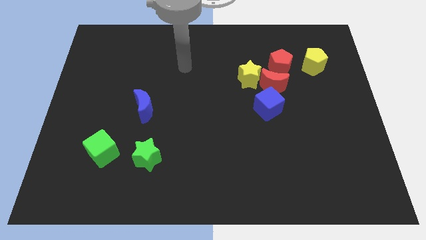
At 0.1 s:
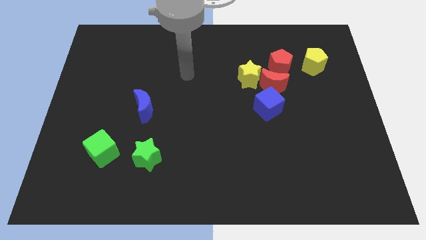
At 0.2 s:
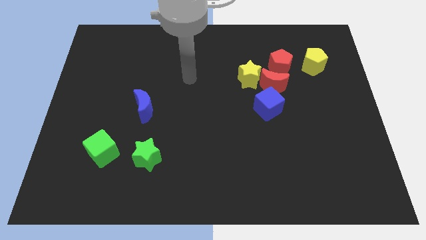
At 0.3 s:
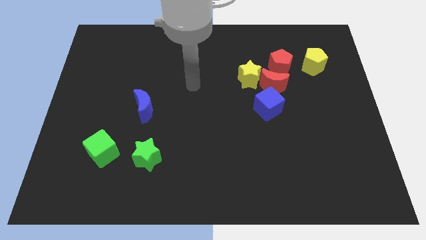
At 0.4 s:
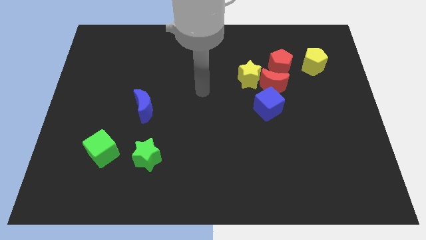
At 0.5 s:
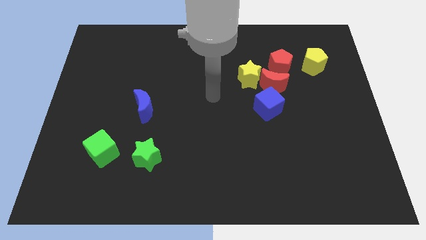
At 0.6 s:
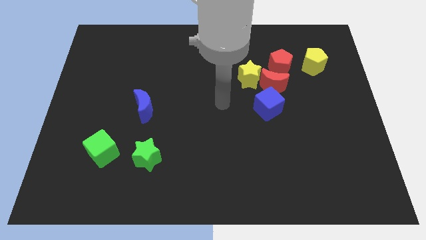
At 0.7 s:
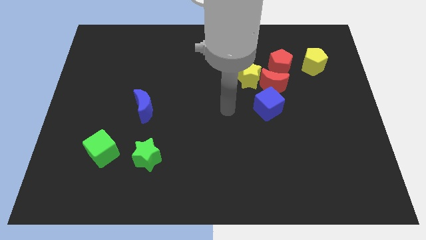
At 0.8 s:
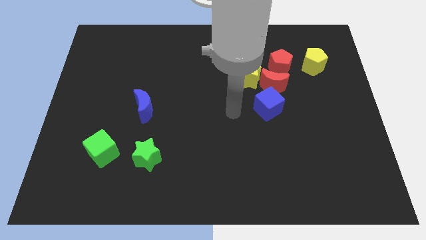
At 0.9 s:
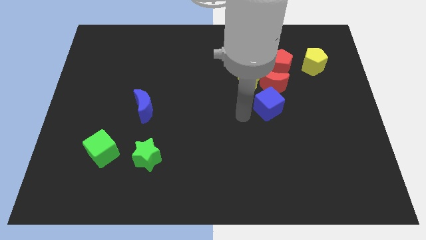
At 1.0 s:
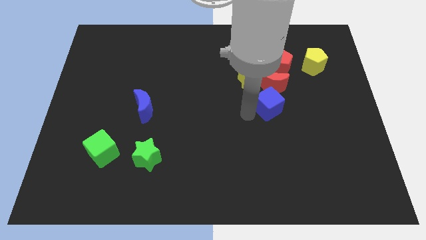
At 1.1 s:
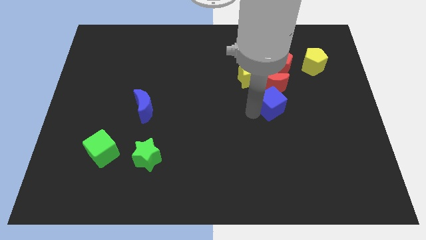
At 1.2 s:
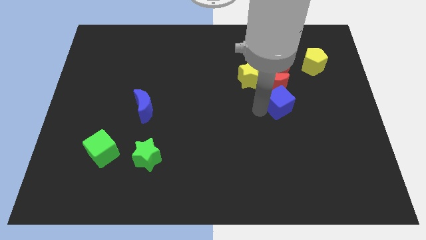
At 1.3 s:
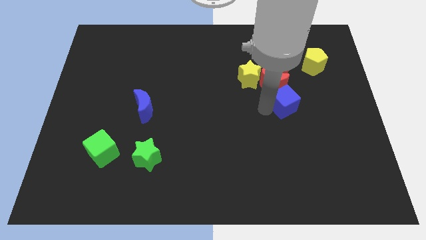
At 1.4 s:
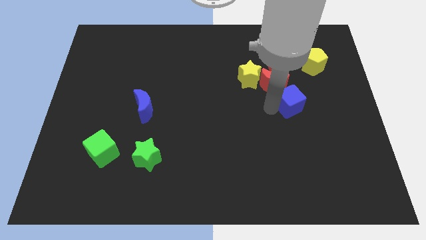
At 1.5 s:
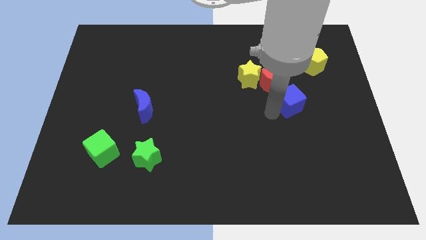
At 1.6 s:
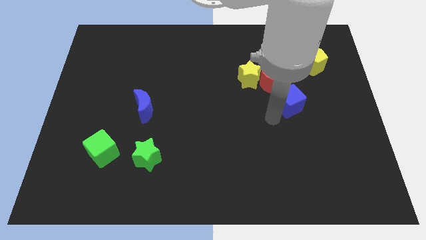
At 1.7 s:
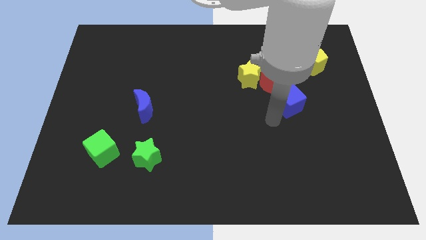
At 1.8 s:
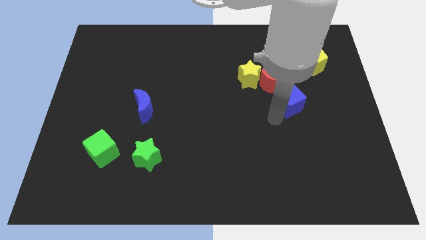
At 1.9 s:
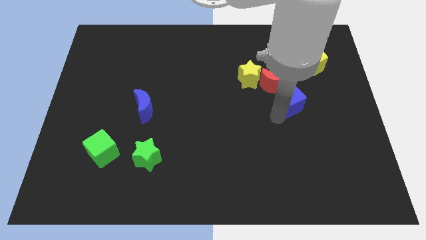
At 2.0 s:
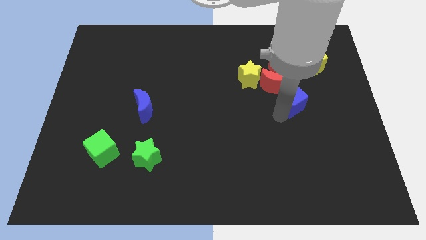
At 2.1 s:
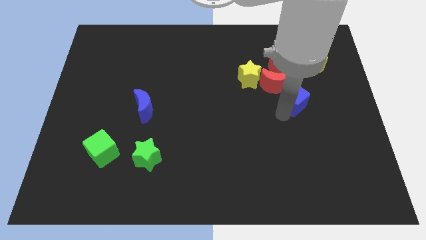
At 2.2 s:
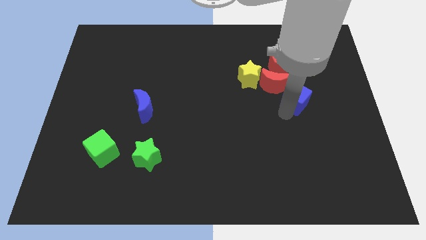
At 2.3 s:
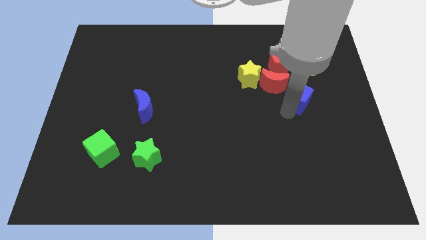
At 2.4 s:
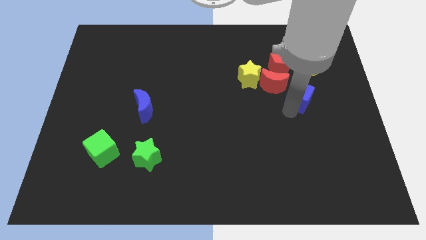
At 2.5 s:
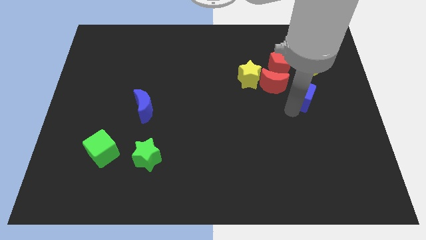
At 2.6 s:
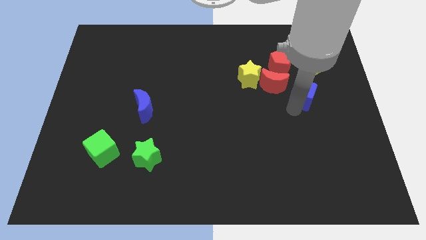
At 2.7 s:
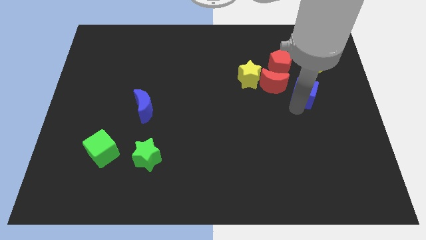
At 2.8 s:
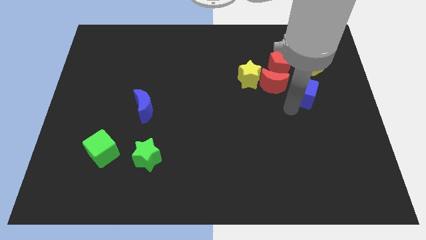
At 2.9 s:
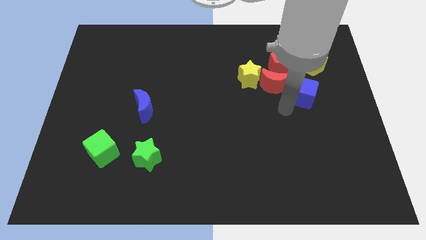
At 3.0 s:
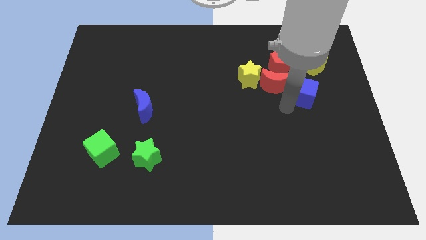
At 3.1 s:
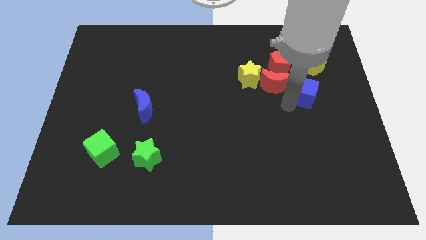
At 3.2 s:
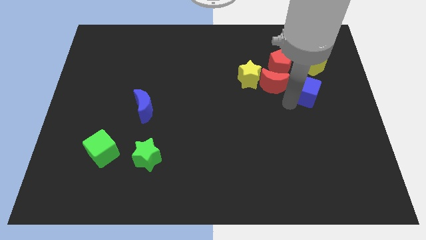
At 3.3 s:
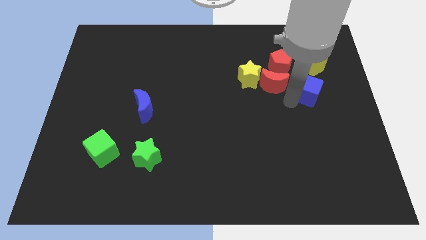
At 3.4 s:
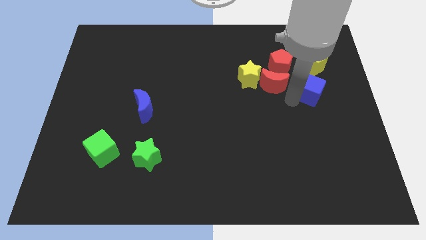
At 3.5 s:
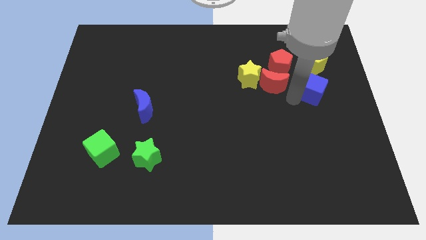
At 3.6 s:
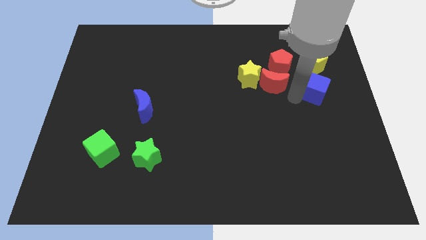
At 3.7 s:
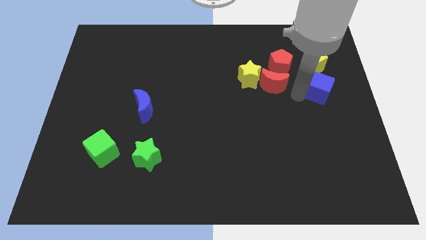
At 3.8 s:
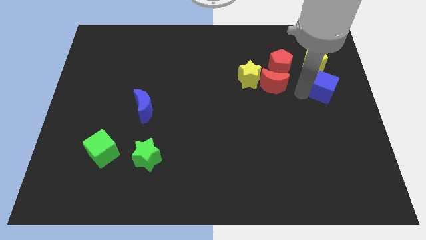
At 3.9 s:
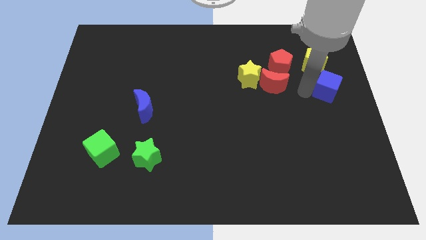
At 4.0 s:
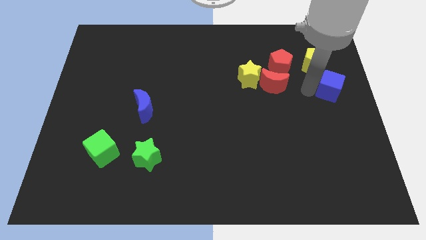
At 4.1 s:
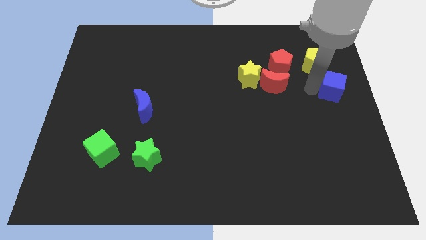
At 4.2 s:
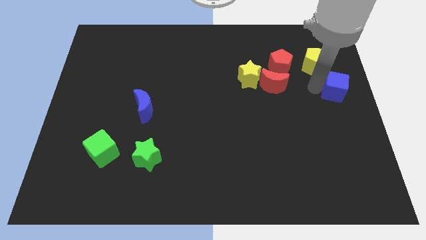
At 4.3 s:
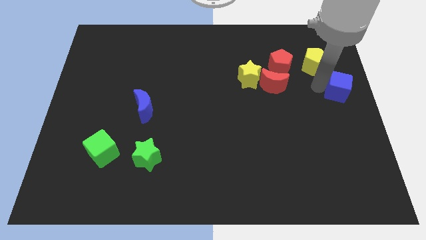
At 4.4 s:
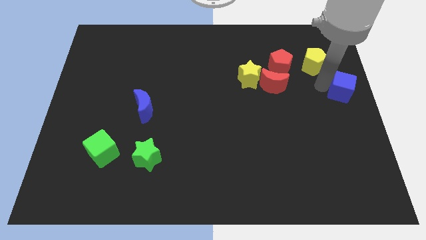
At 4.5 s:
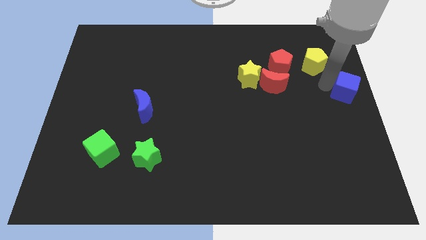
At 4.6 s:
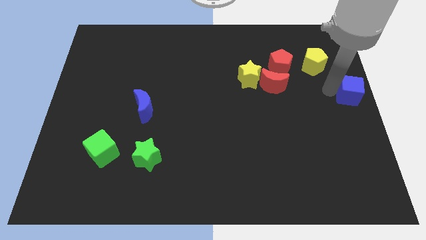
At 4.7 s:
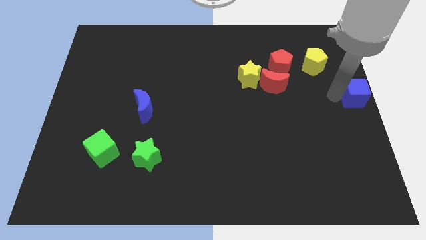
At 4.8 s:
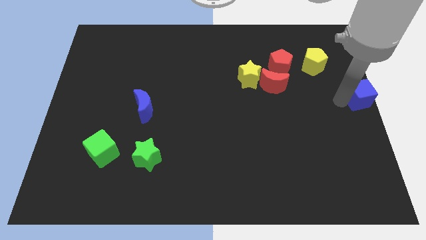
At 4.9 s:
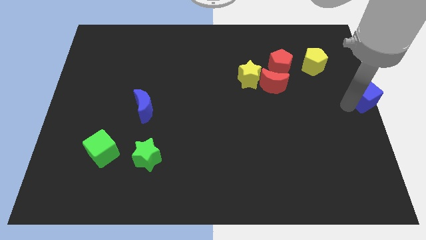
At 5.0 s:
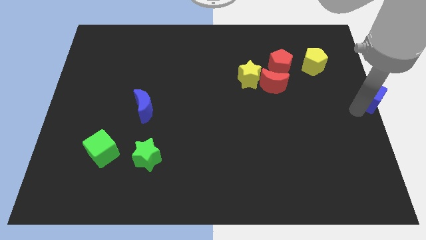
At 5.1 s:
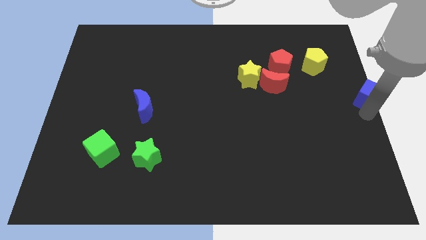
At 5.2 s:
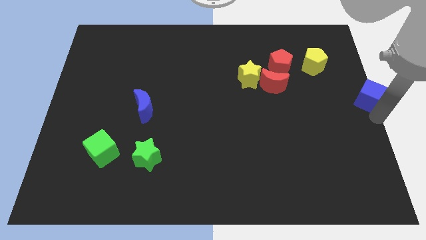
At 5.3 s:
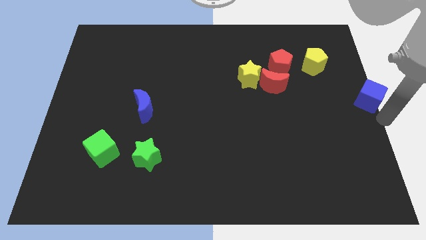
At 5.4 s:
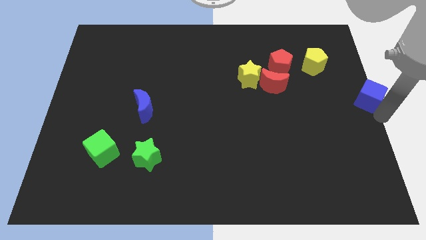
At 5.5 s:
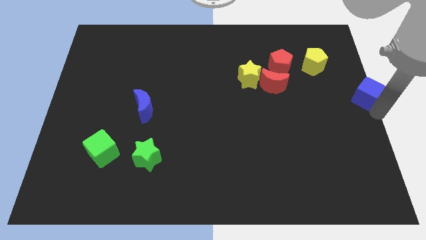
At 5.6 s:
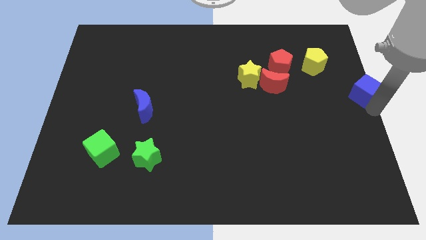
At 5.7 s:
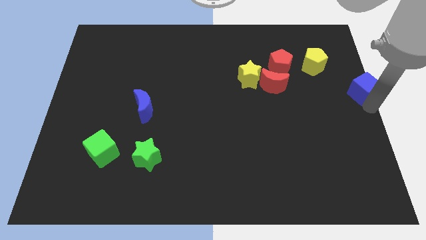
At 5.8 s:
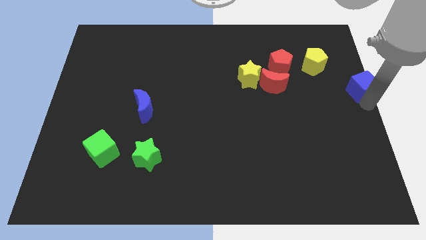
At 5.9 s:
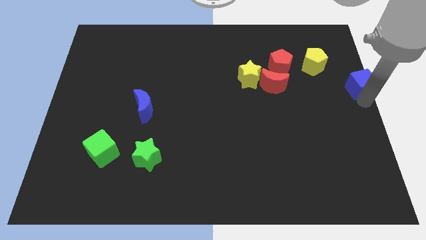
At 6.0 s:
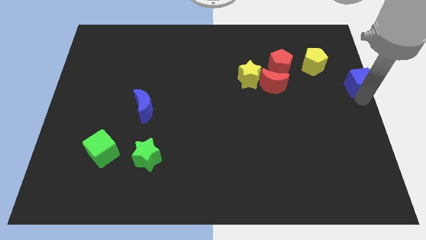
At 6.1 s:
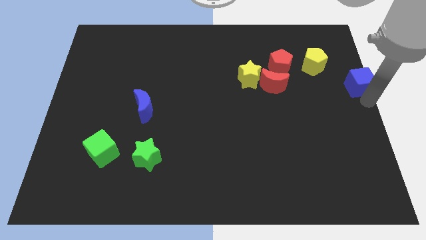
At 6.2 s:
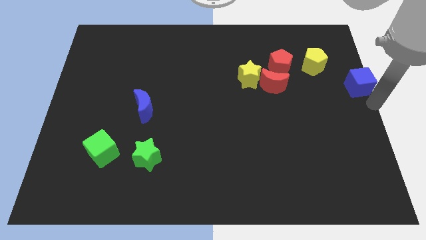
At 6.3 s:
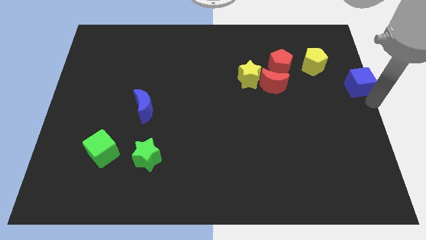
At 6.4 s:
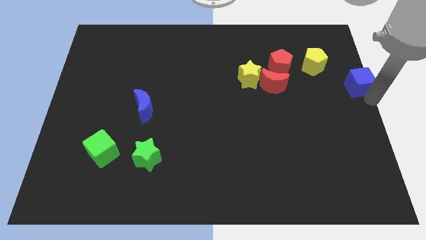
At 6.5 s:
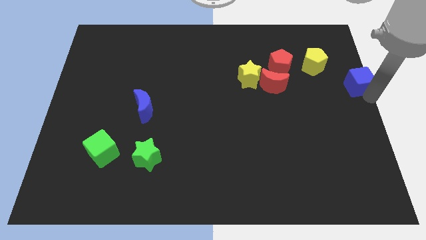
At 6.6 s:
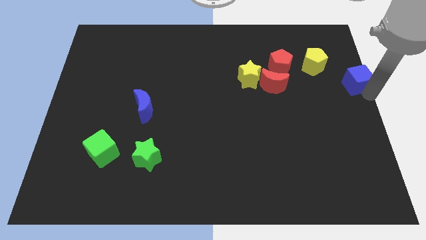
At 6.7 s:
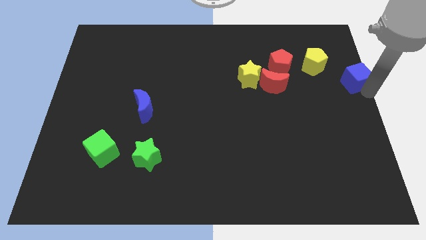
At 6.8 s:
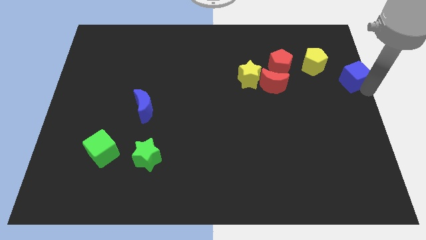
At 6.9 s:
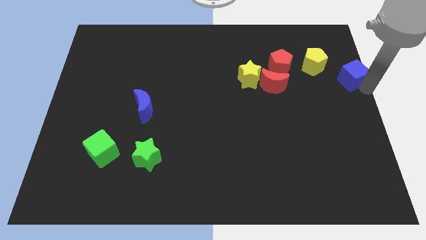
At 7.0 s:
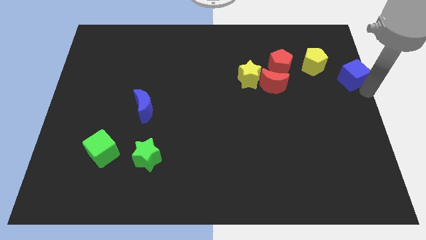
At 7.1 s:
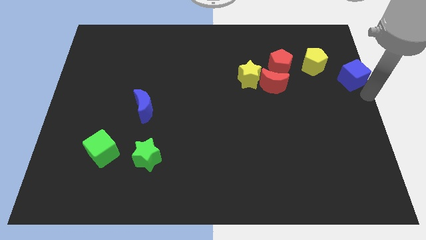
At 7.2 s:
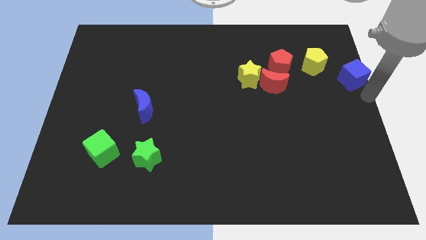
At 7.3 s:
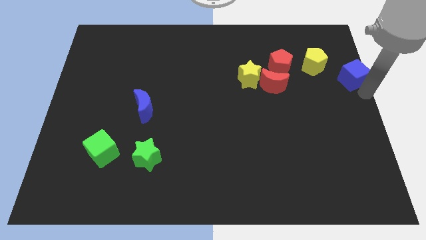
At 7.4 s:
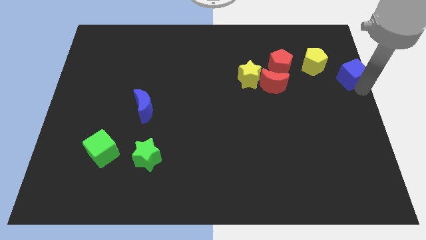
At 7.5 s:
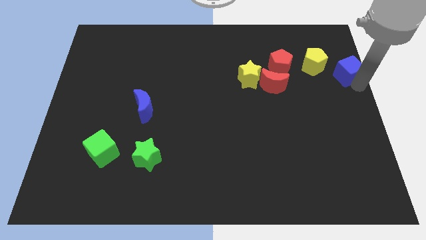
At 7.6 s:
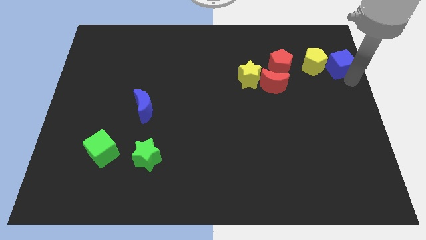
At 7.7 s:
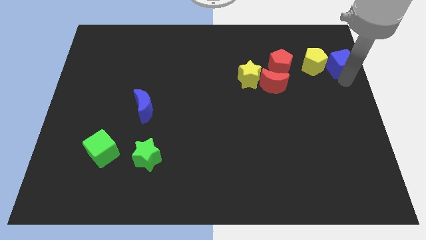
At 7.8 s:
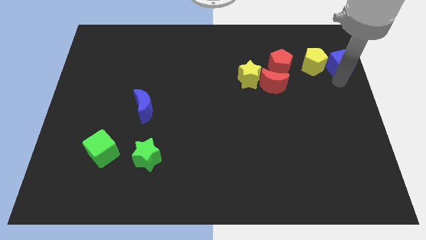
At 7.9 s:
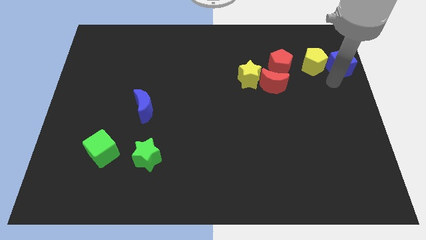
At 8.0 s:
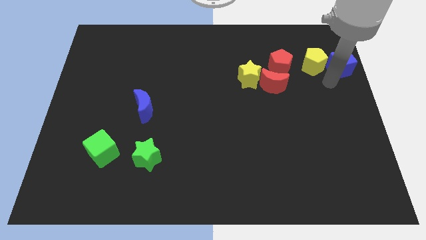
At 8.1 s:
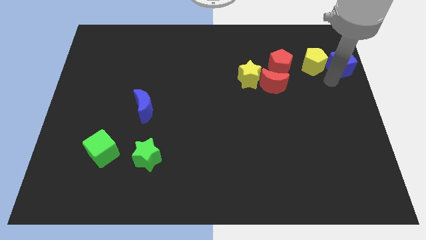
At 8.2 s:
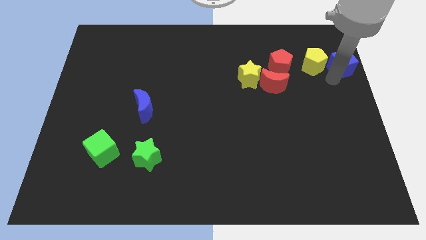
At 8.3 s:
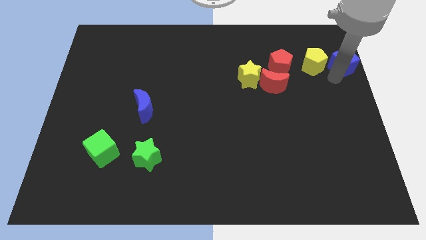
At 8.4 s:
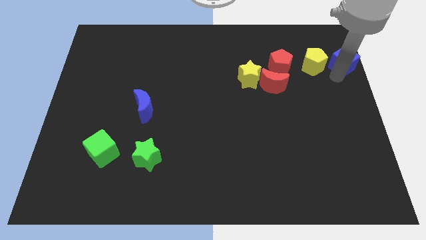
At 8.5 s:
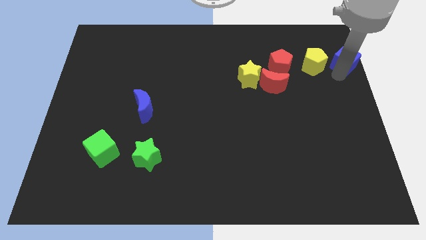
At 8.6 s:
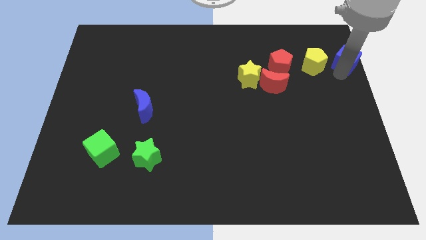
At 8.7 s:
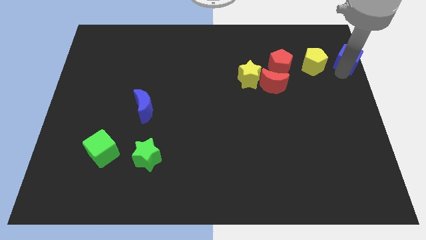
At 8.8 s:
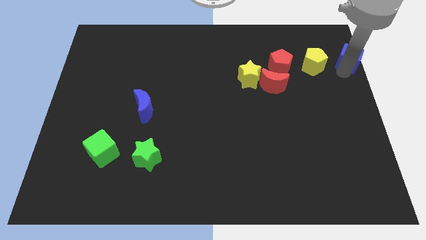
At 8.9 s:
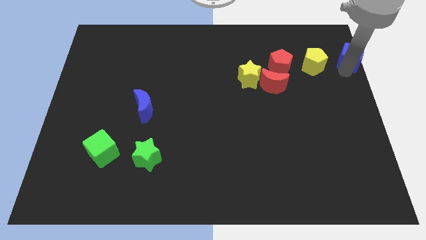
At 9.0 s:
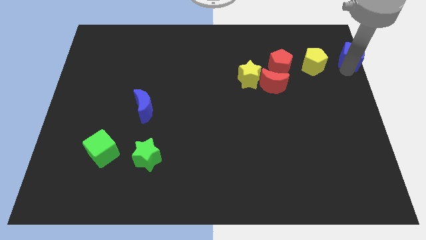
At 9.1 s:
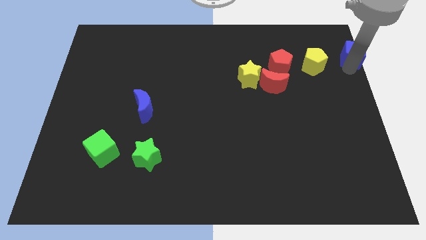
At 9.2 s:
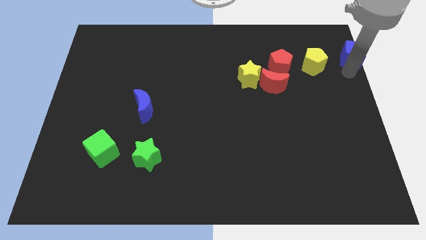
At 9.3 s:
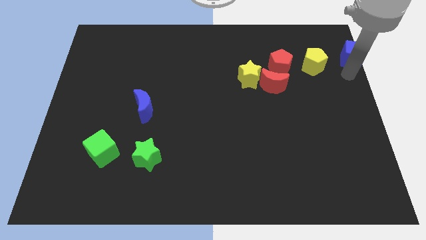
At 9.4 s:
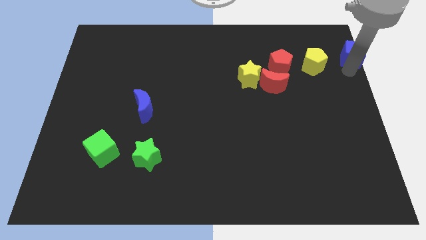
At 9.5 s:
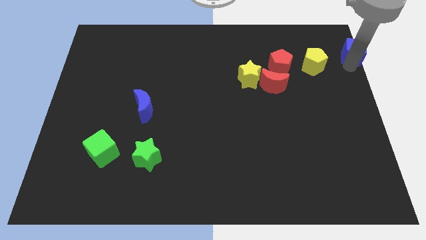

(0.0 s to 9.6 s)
move the blue cube to the top right
